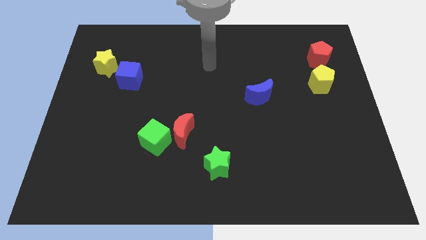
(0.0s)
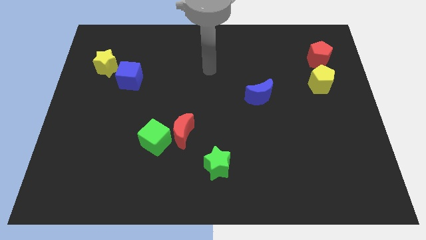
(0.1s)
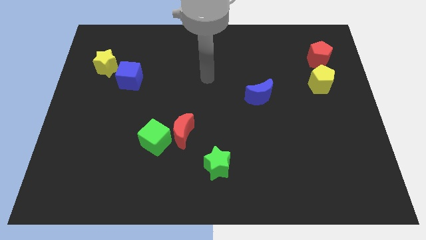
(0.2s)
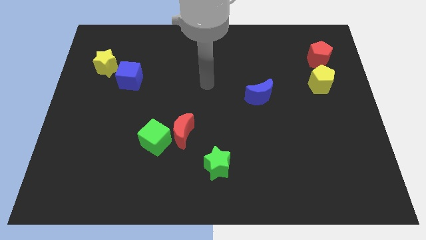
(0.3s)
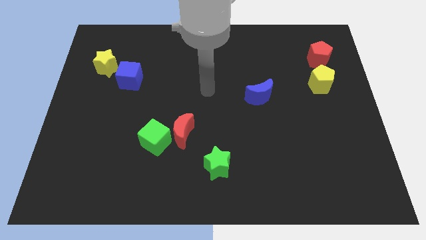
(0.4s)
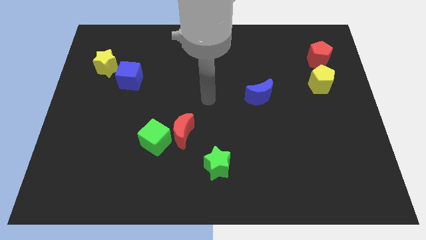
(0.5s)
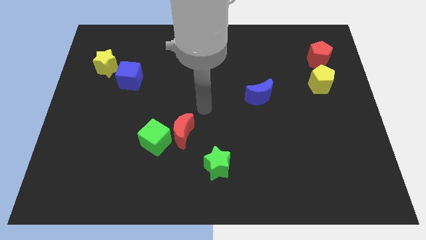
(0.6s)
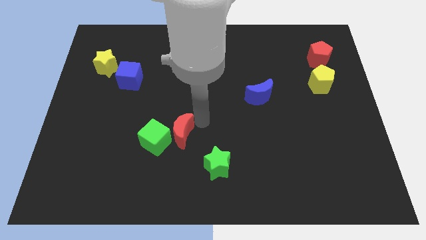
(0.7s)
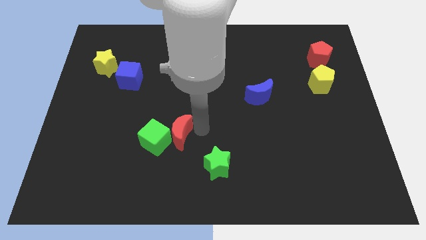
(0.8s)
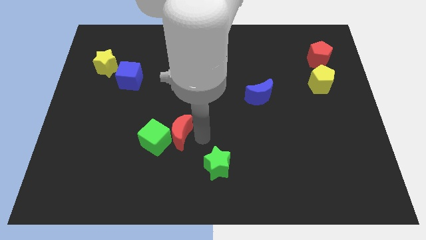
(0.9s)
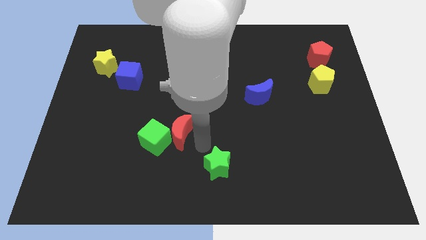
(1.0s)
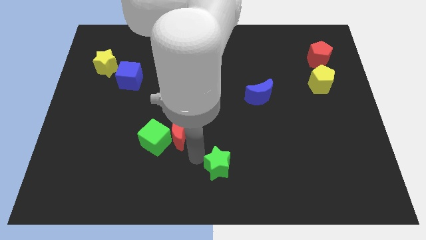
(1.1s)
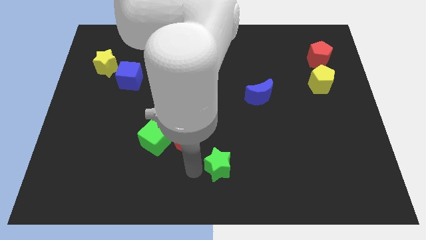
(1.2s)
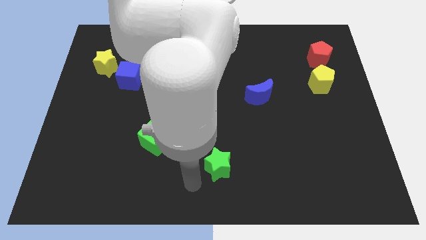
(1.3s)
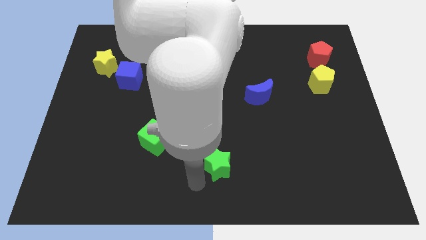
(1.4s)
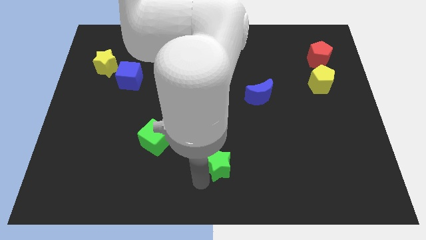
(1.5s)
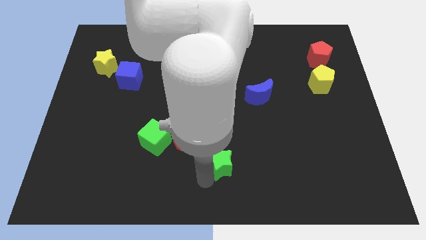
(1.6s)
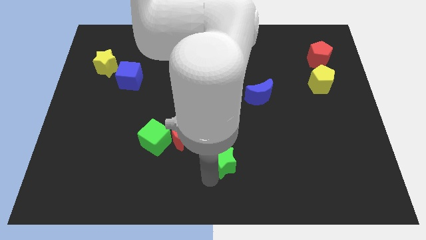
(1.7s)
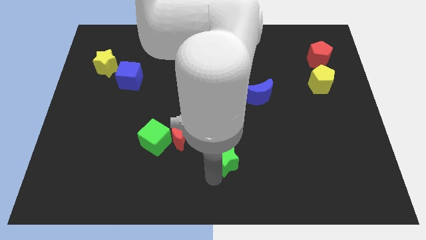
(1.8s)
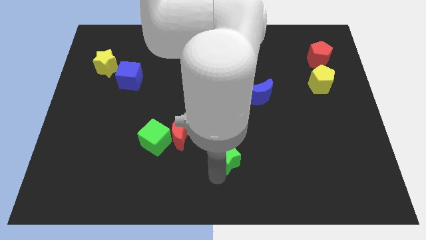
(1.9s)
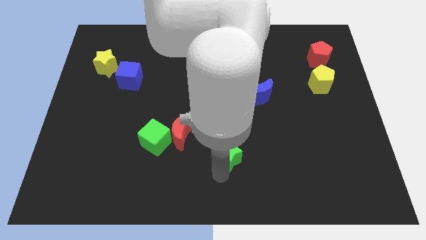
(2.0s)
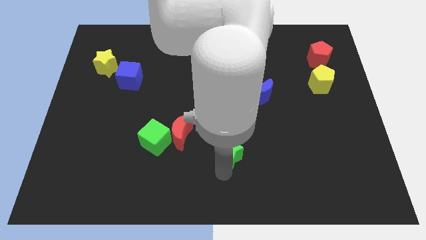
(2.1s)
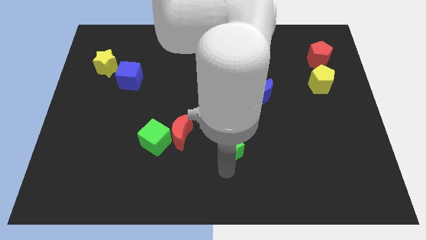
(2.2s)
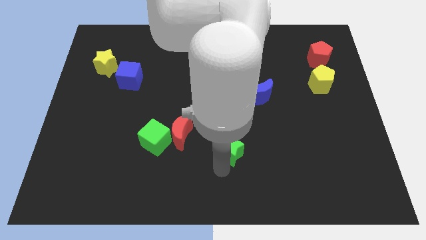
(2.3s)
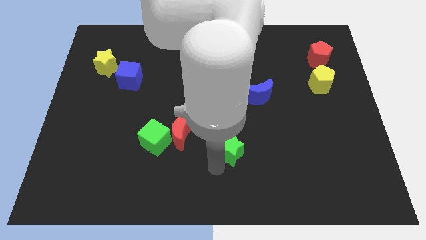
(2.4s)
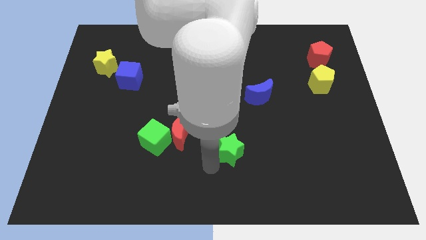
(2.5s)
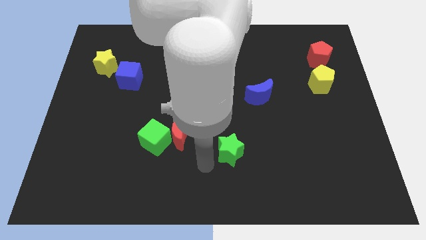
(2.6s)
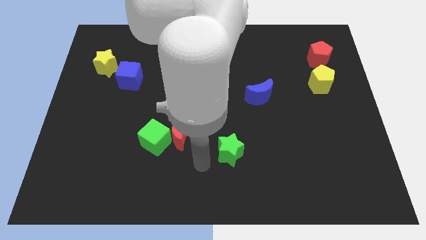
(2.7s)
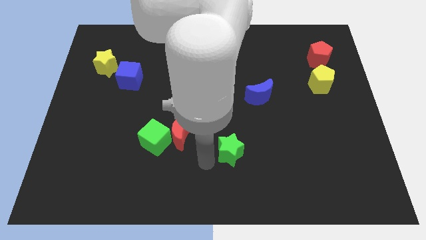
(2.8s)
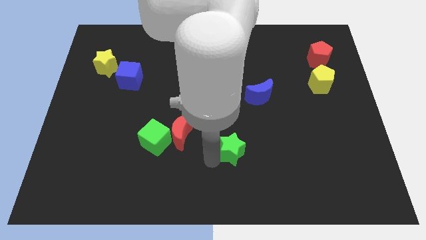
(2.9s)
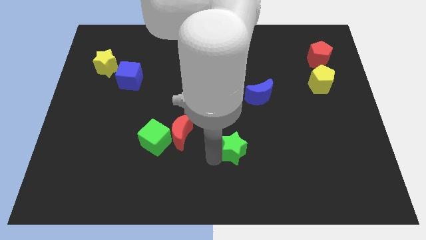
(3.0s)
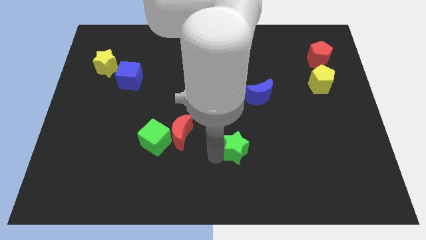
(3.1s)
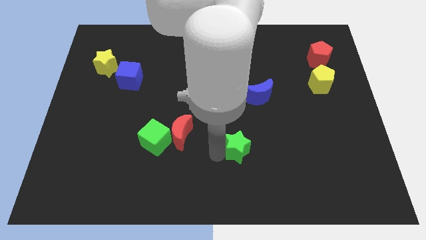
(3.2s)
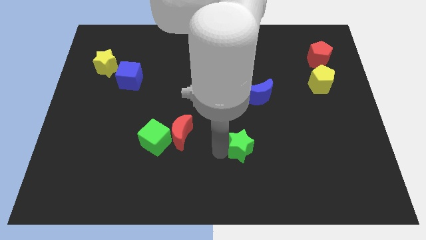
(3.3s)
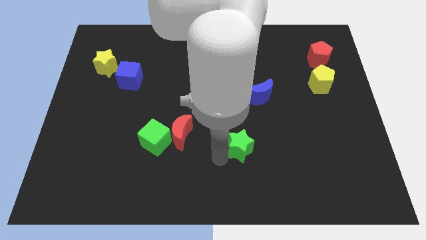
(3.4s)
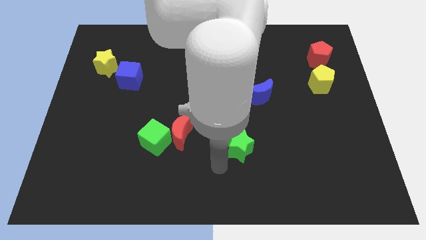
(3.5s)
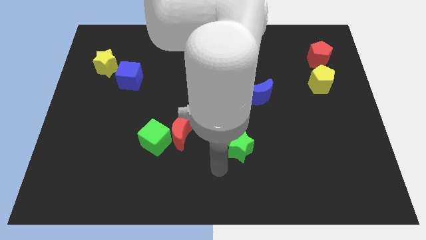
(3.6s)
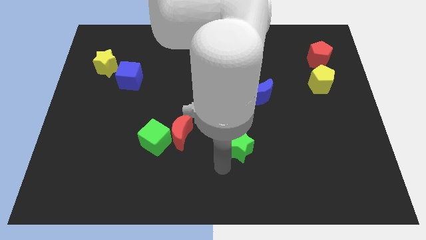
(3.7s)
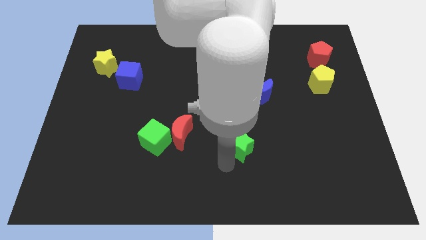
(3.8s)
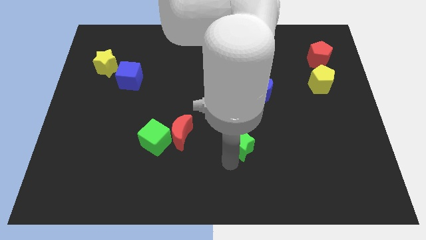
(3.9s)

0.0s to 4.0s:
move the green star a bit diagonally up and right

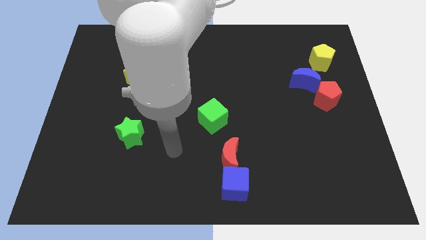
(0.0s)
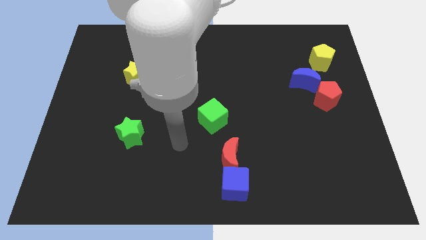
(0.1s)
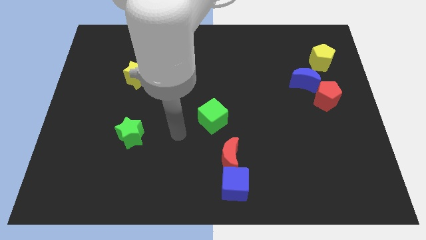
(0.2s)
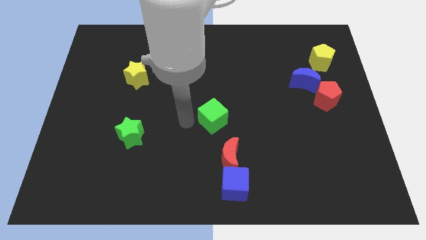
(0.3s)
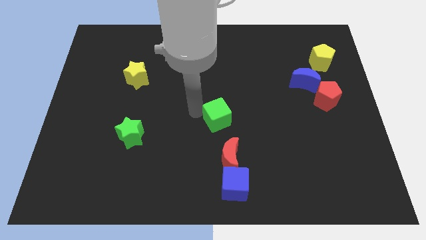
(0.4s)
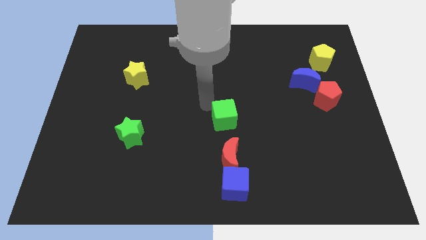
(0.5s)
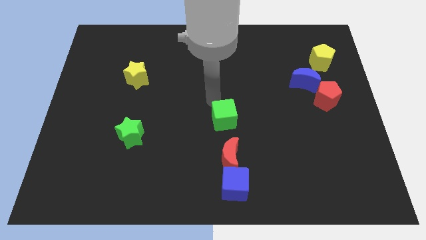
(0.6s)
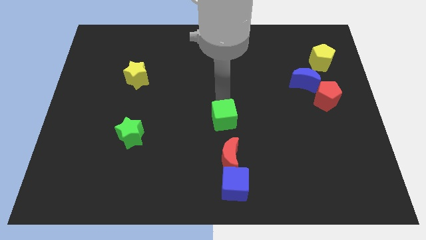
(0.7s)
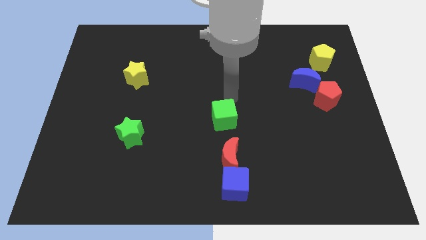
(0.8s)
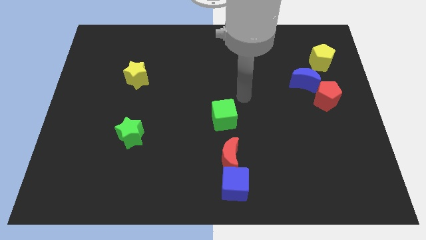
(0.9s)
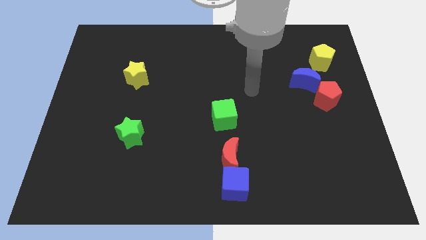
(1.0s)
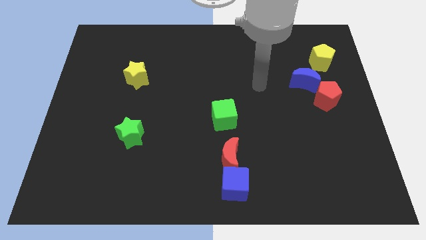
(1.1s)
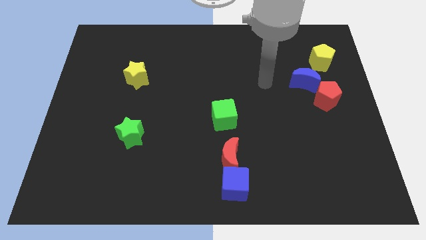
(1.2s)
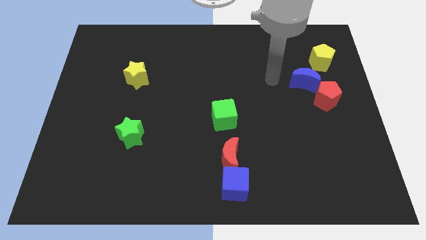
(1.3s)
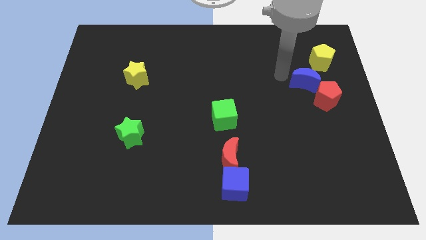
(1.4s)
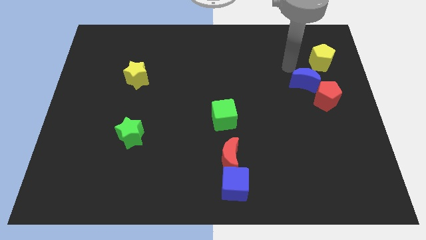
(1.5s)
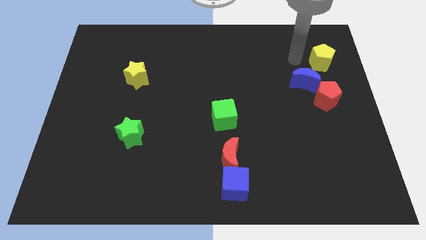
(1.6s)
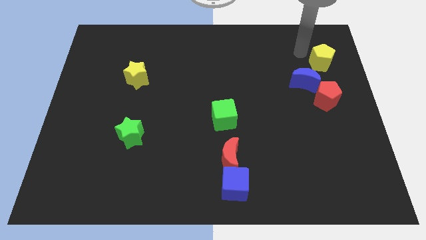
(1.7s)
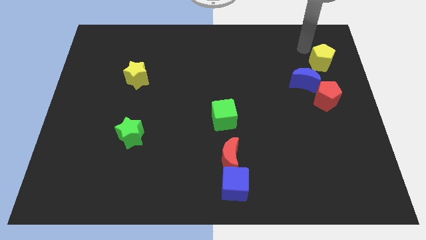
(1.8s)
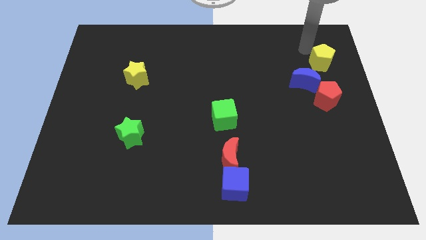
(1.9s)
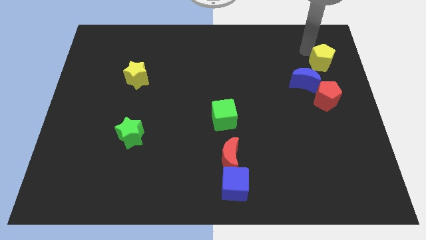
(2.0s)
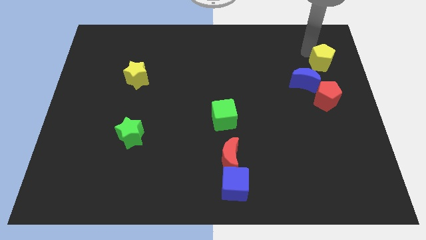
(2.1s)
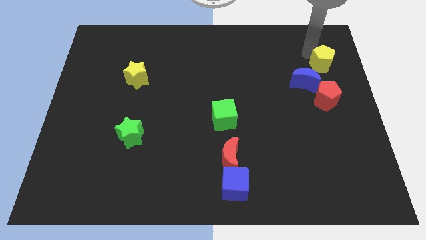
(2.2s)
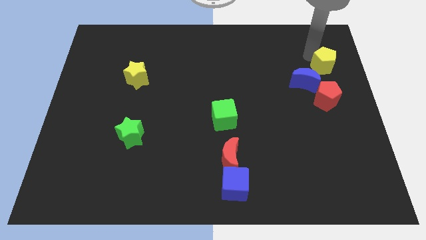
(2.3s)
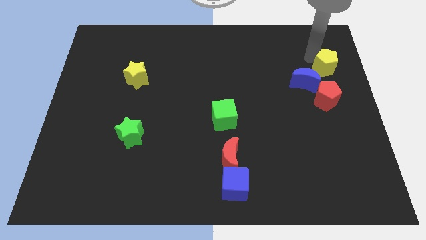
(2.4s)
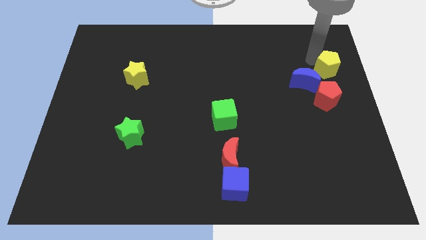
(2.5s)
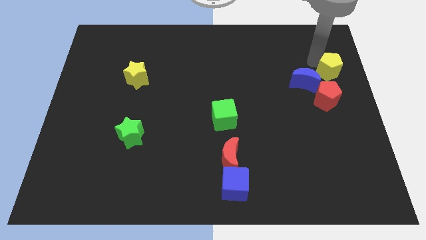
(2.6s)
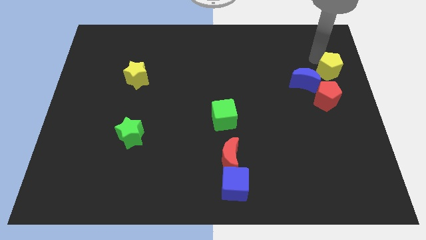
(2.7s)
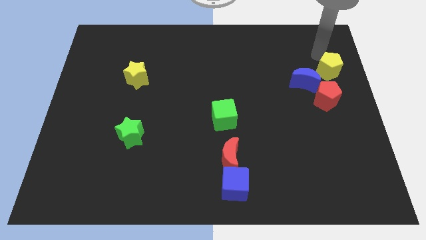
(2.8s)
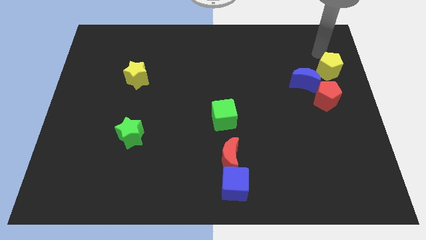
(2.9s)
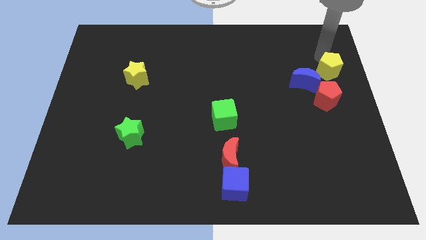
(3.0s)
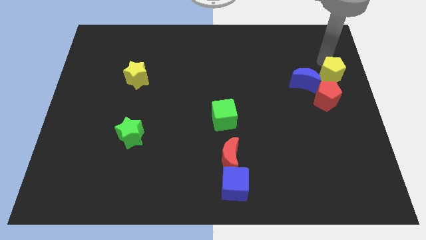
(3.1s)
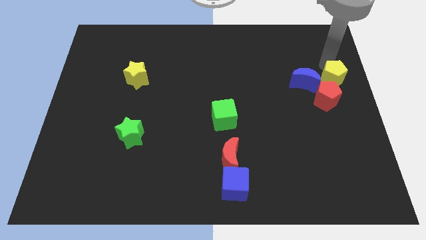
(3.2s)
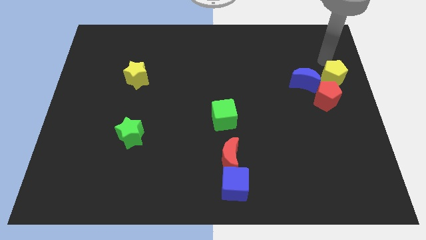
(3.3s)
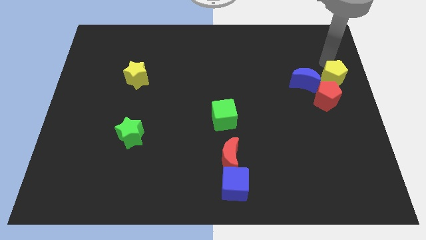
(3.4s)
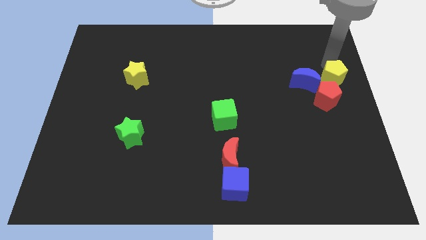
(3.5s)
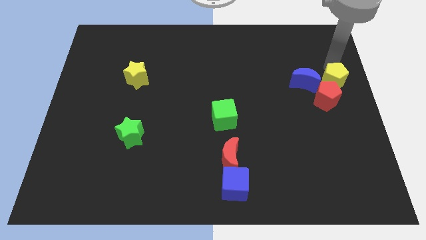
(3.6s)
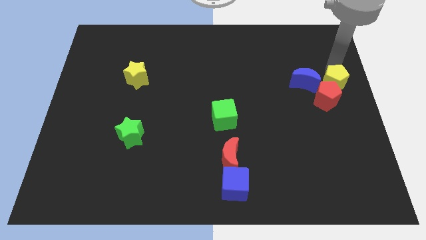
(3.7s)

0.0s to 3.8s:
slide the yellow pentagon a bit down

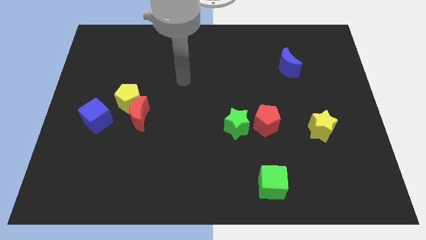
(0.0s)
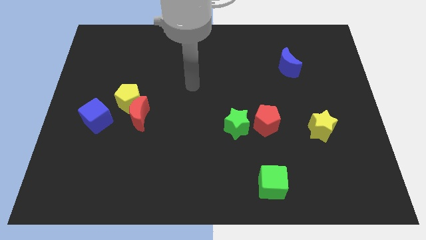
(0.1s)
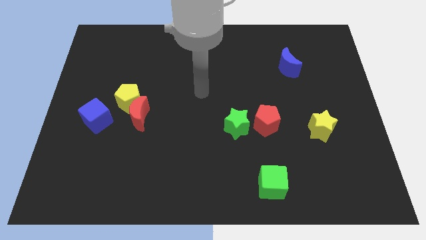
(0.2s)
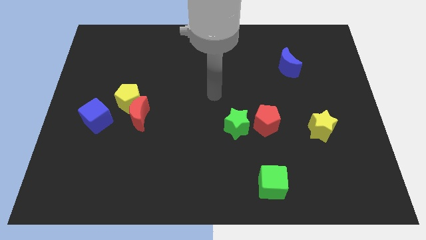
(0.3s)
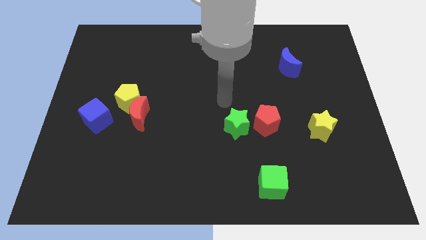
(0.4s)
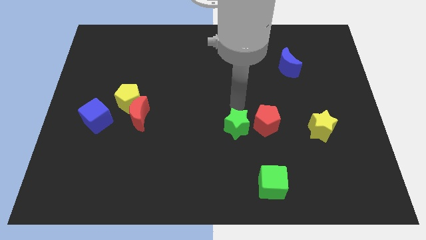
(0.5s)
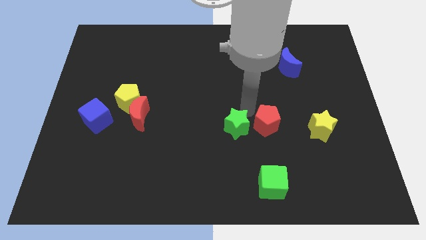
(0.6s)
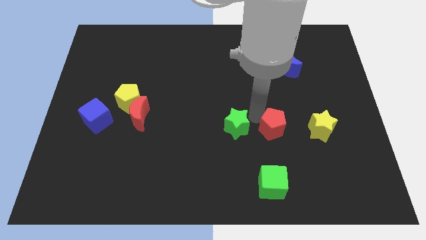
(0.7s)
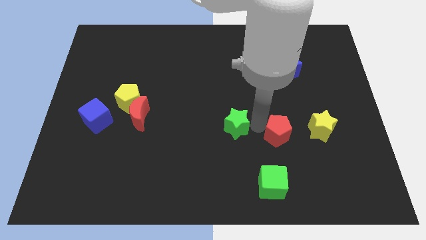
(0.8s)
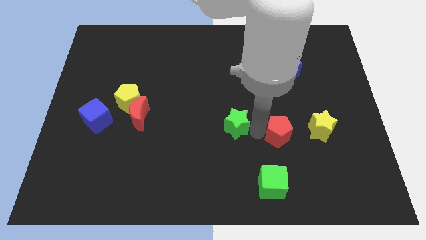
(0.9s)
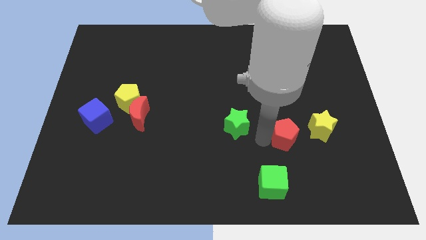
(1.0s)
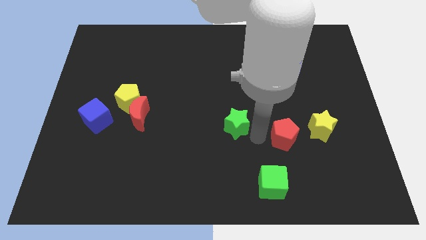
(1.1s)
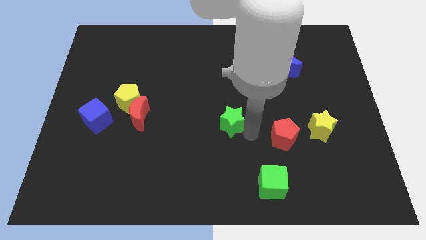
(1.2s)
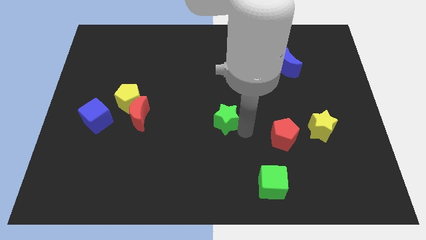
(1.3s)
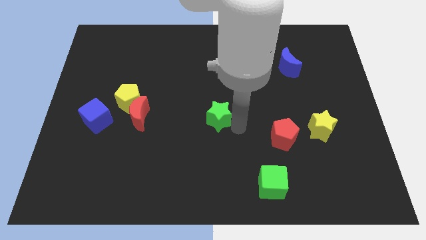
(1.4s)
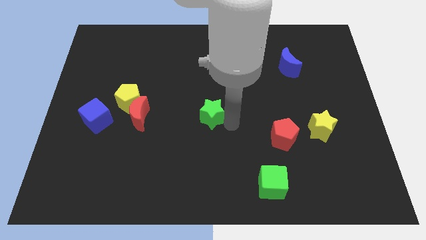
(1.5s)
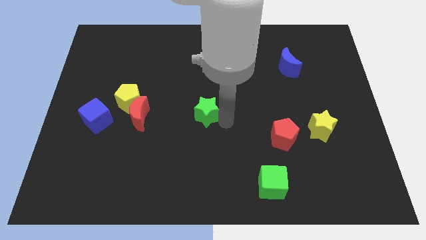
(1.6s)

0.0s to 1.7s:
slightly push the green star upwards and to the left
